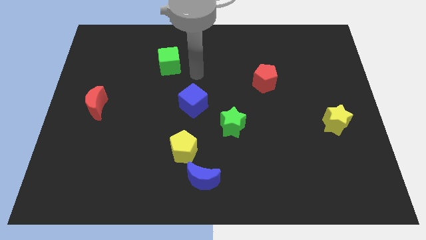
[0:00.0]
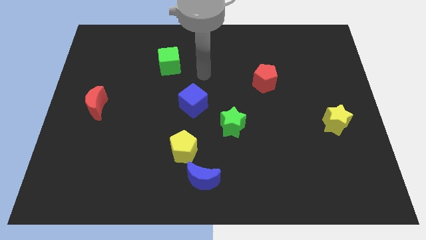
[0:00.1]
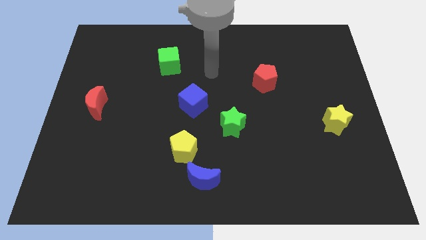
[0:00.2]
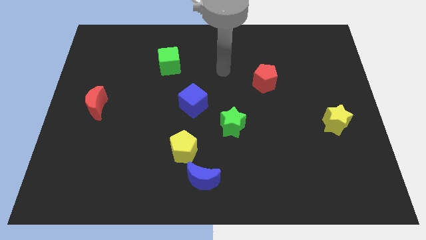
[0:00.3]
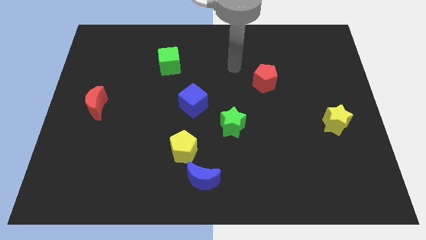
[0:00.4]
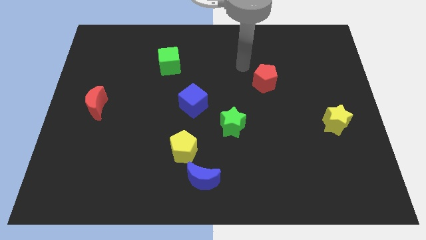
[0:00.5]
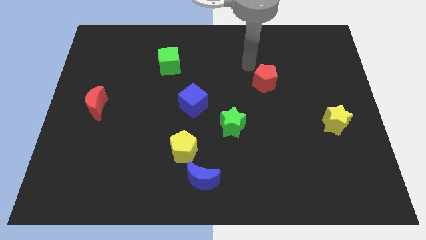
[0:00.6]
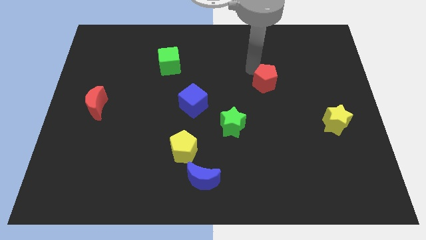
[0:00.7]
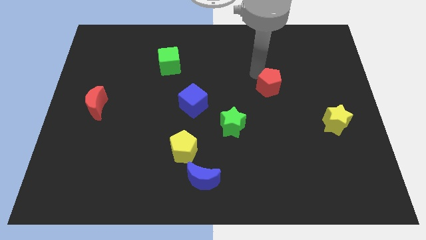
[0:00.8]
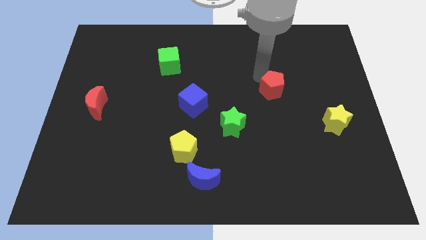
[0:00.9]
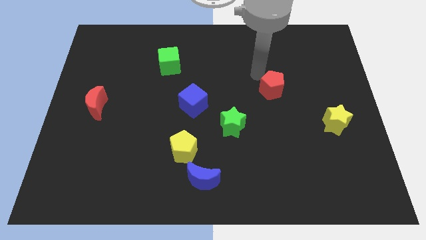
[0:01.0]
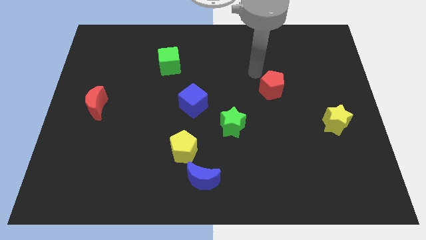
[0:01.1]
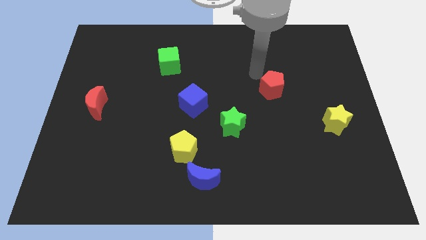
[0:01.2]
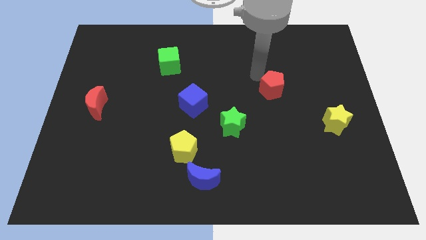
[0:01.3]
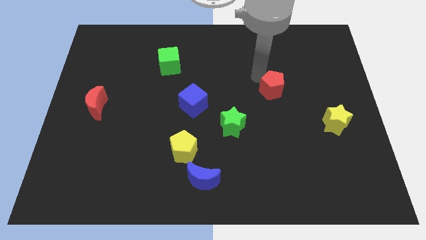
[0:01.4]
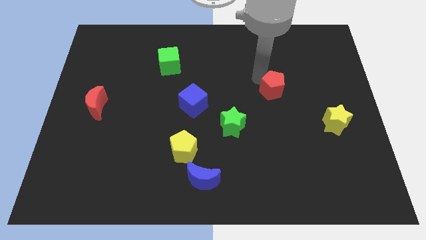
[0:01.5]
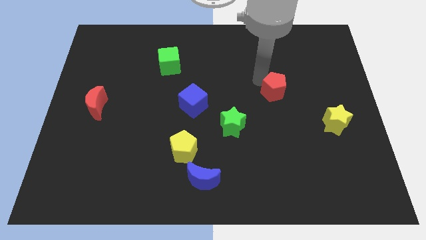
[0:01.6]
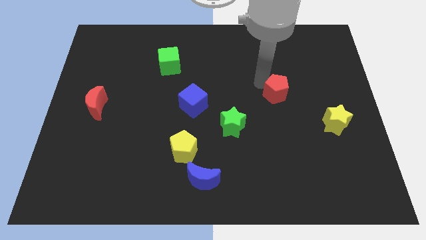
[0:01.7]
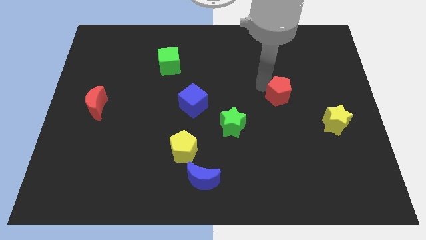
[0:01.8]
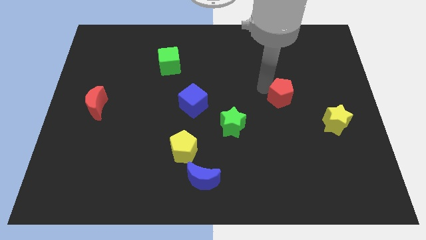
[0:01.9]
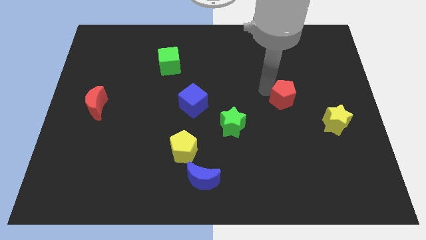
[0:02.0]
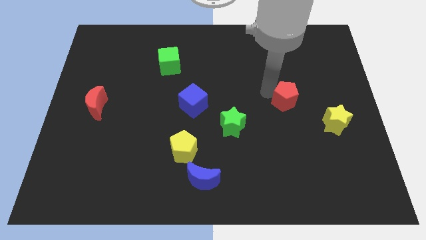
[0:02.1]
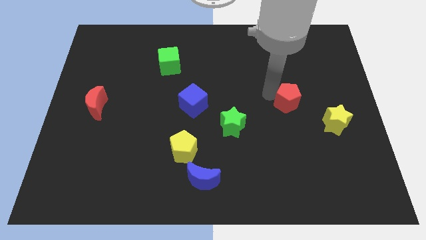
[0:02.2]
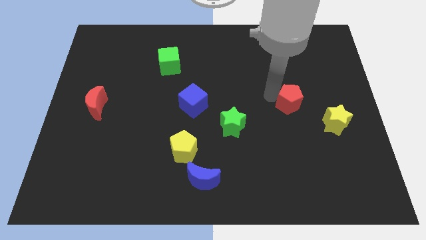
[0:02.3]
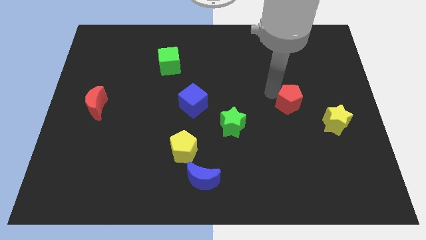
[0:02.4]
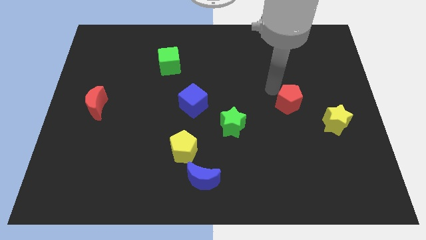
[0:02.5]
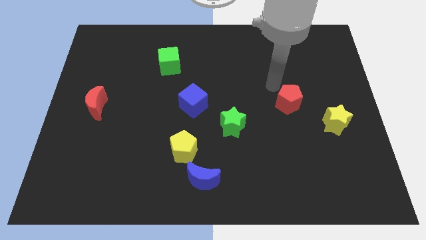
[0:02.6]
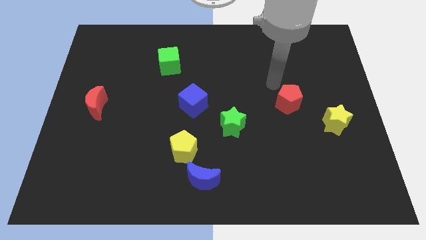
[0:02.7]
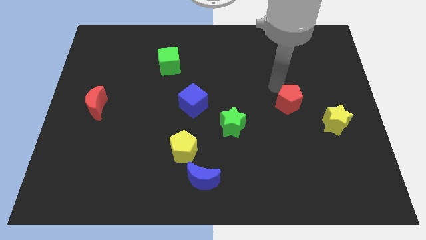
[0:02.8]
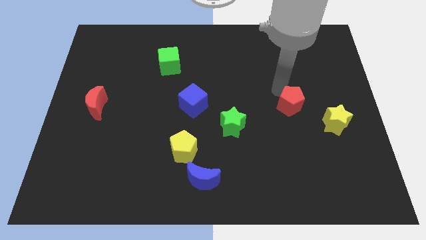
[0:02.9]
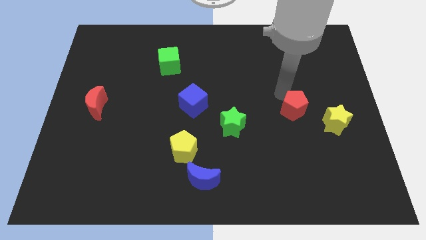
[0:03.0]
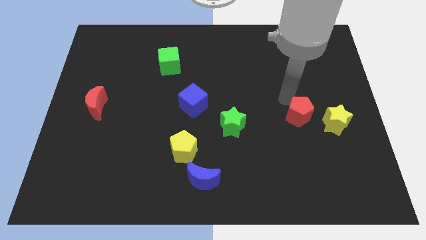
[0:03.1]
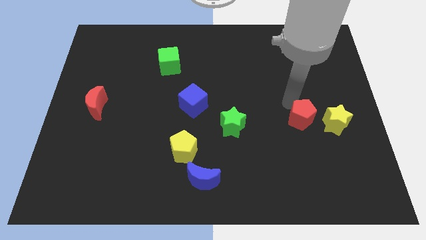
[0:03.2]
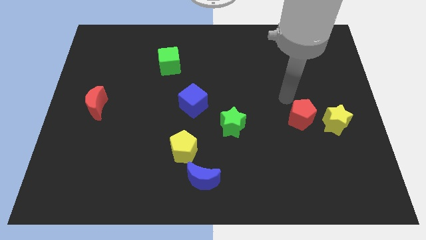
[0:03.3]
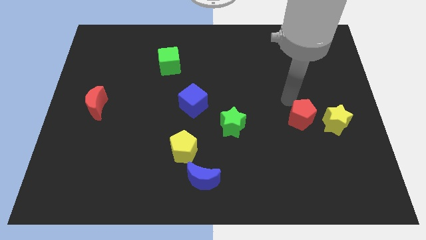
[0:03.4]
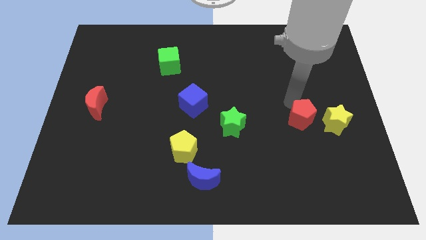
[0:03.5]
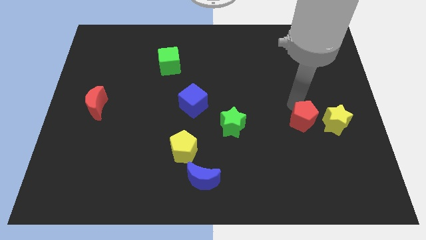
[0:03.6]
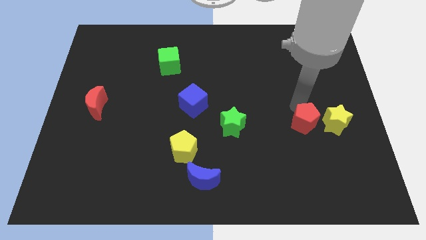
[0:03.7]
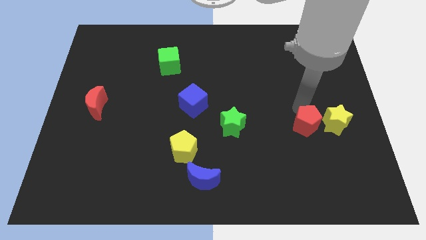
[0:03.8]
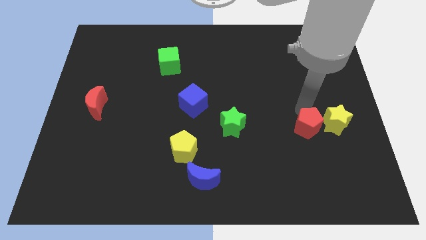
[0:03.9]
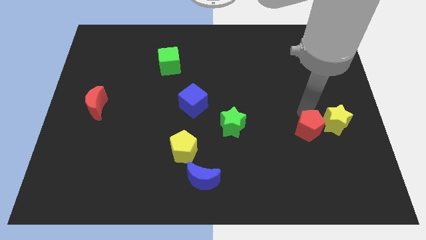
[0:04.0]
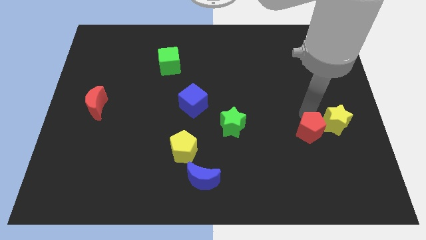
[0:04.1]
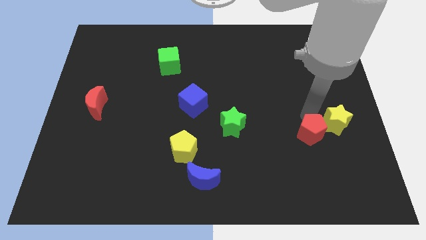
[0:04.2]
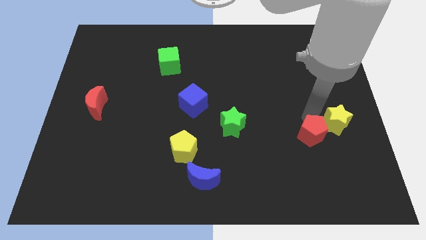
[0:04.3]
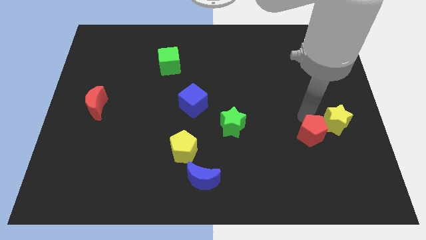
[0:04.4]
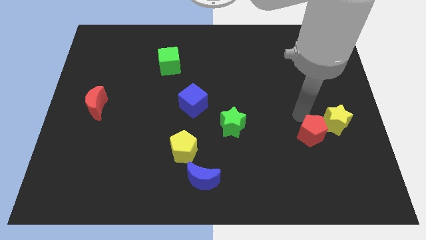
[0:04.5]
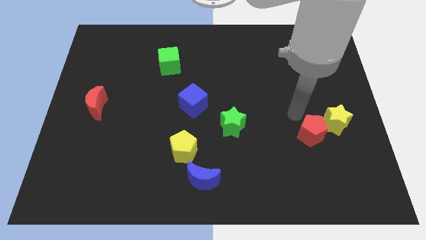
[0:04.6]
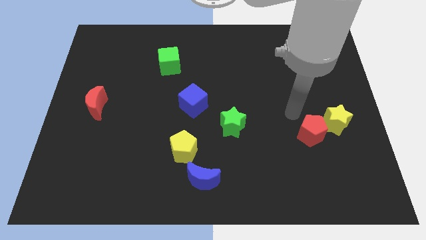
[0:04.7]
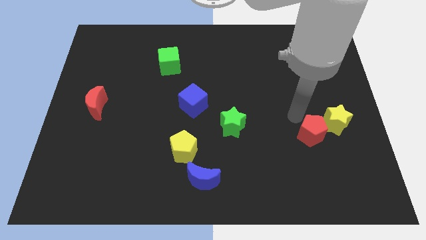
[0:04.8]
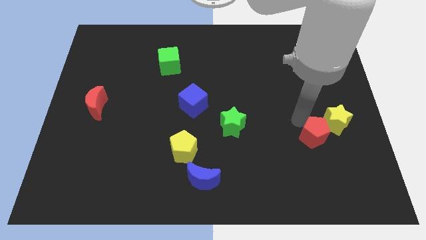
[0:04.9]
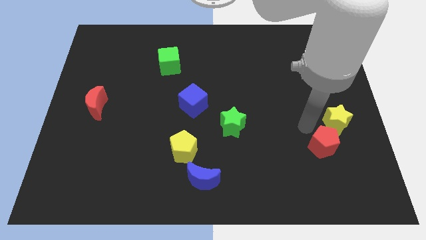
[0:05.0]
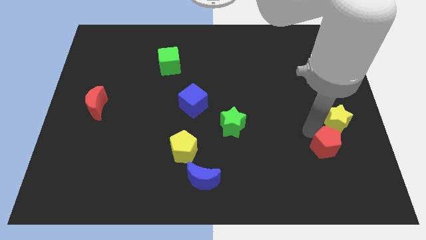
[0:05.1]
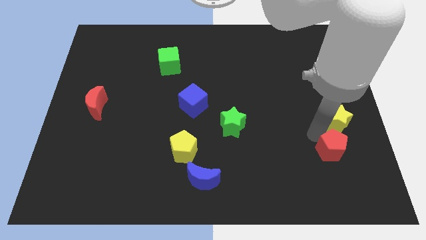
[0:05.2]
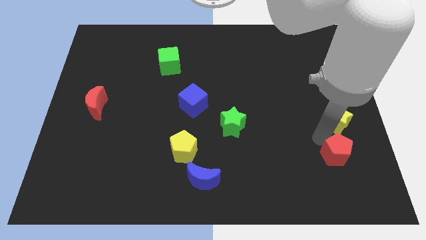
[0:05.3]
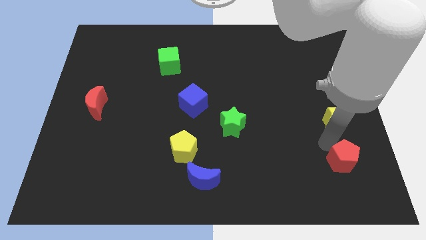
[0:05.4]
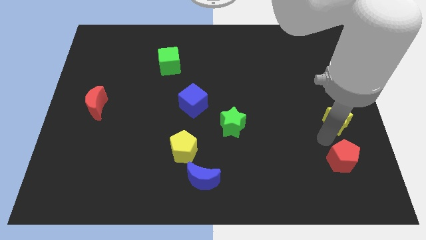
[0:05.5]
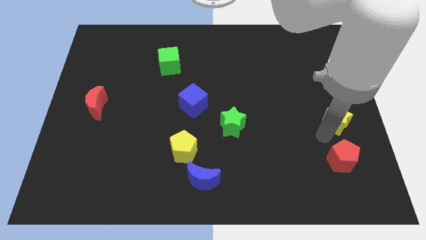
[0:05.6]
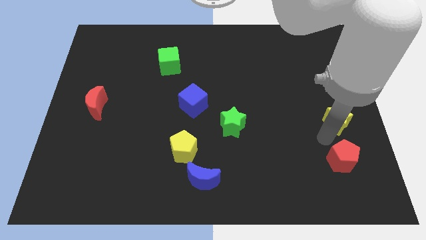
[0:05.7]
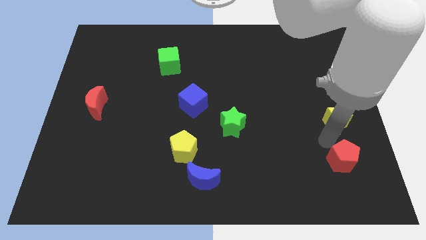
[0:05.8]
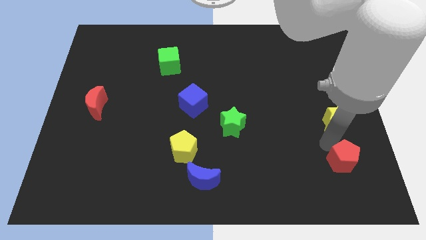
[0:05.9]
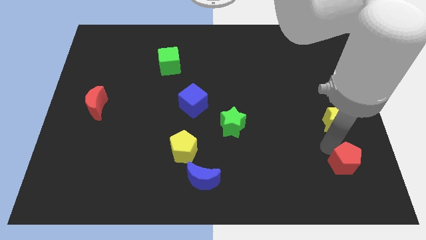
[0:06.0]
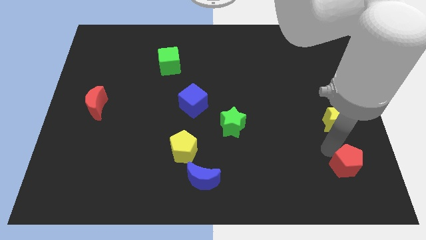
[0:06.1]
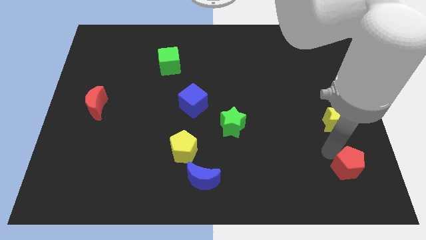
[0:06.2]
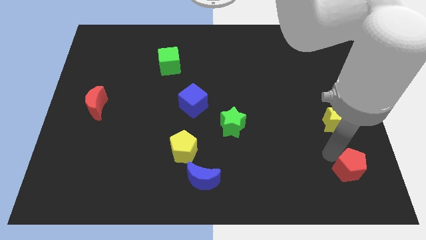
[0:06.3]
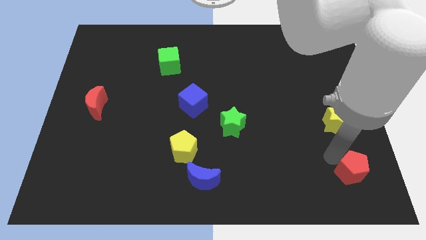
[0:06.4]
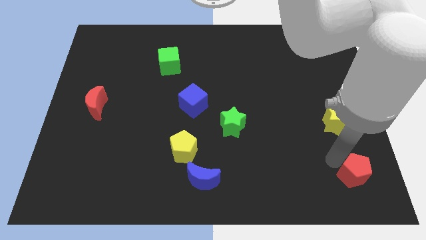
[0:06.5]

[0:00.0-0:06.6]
push the red pentagon to the bottom right of the board
